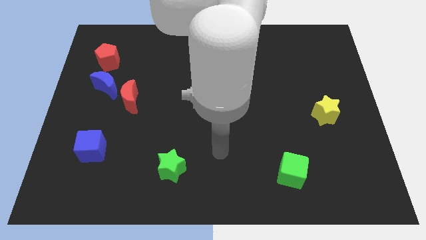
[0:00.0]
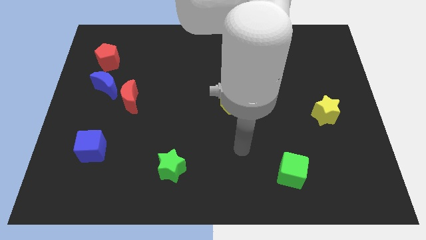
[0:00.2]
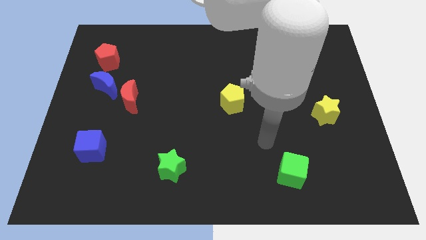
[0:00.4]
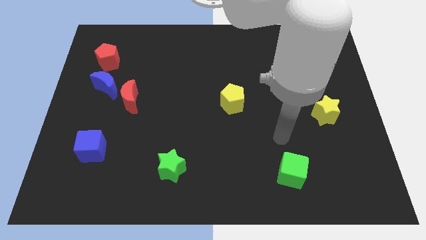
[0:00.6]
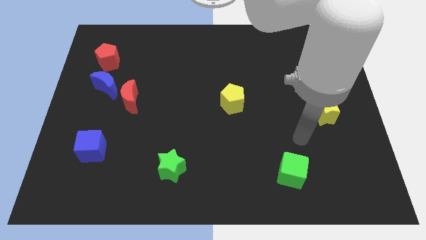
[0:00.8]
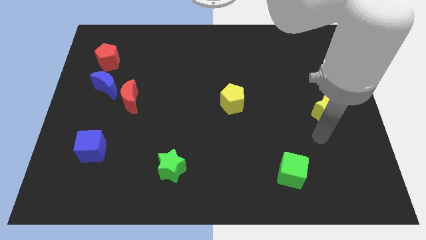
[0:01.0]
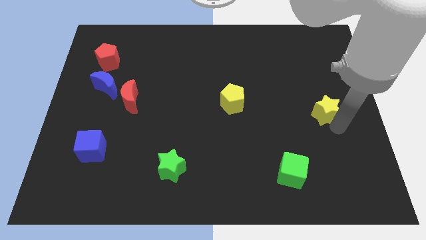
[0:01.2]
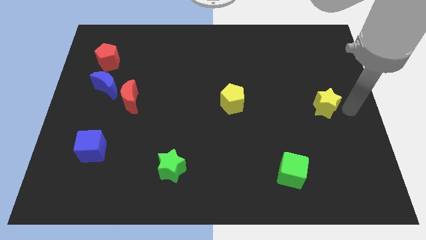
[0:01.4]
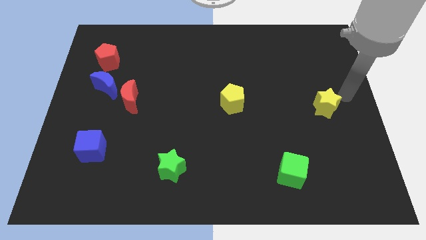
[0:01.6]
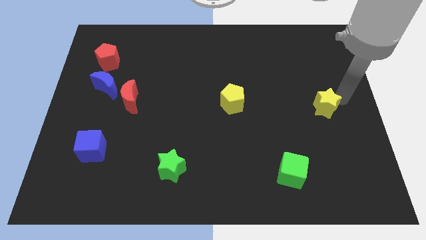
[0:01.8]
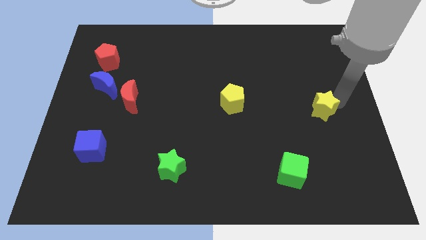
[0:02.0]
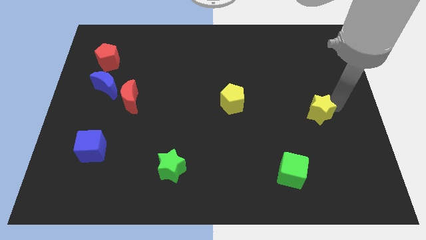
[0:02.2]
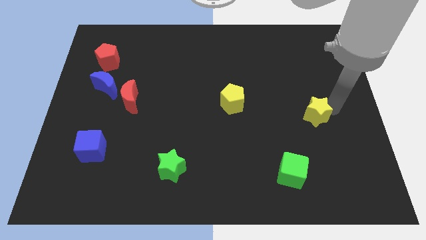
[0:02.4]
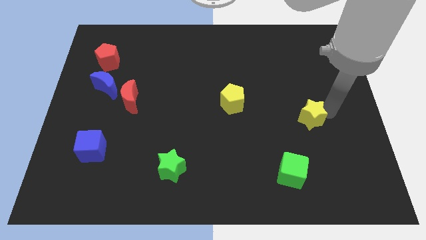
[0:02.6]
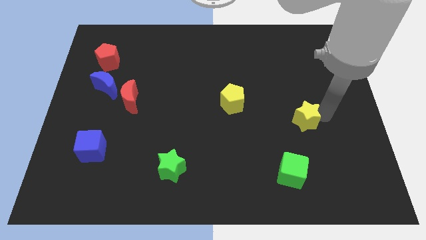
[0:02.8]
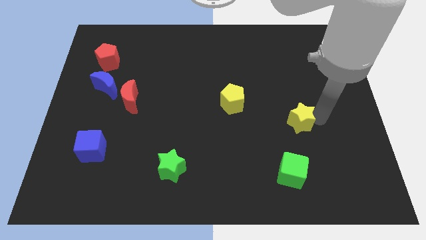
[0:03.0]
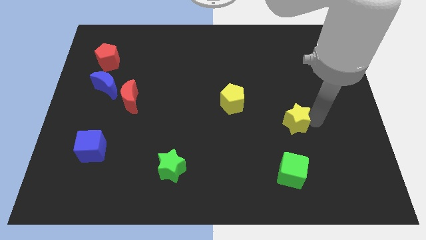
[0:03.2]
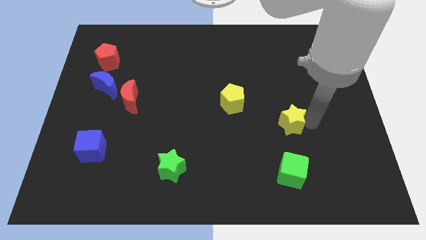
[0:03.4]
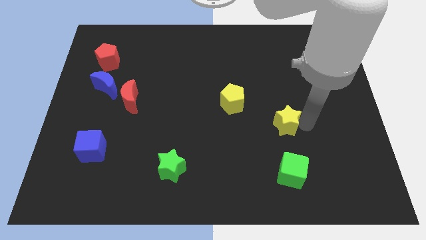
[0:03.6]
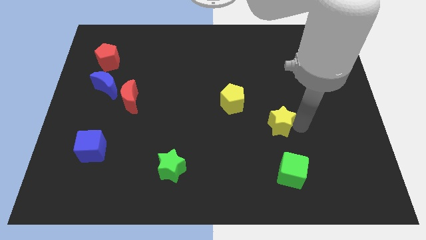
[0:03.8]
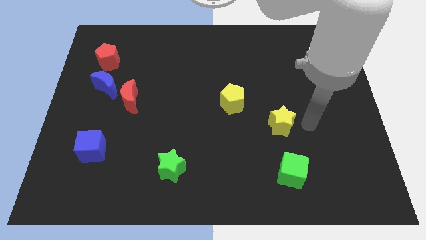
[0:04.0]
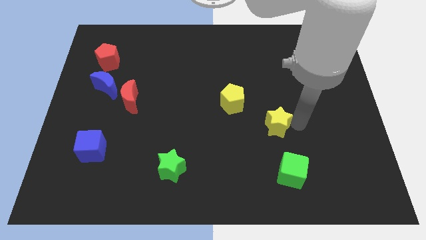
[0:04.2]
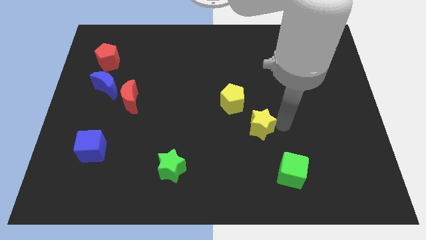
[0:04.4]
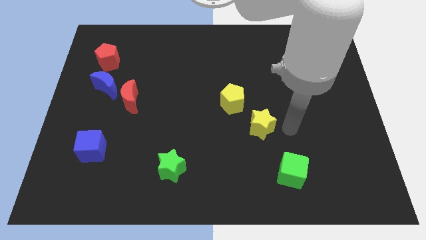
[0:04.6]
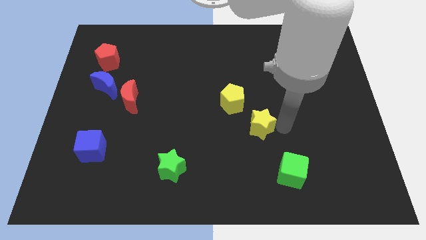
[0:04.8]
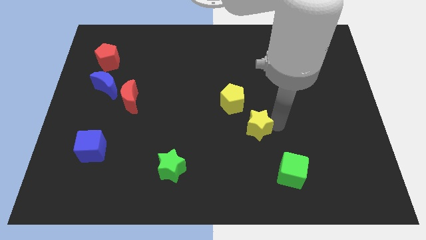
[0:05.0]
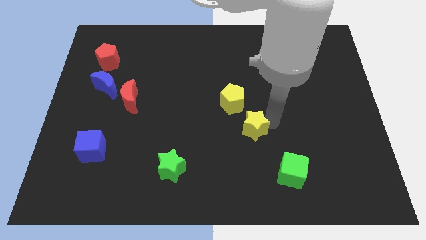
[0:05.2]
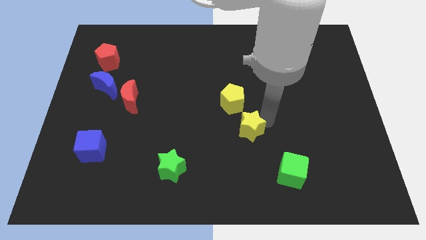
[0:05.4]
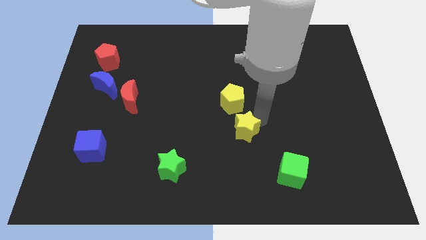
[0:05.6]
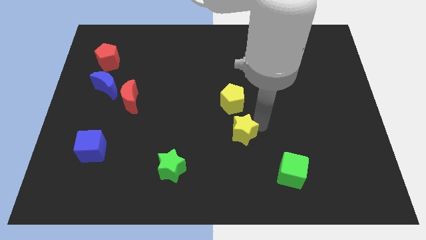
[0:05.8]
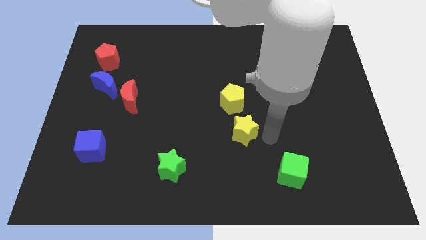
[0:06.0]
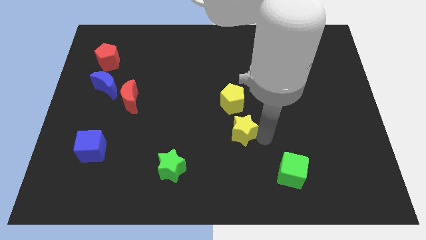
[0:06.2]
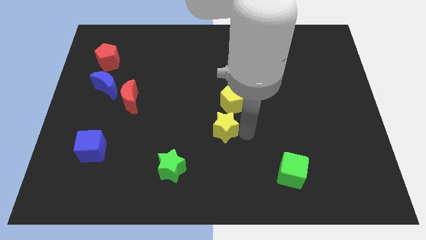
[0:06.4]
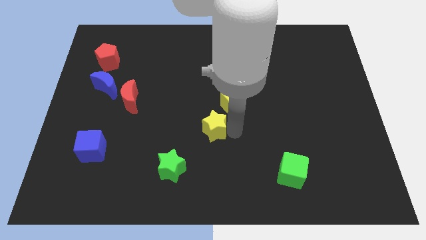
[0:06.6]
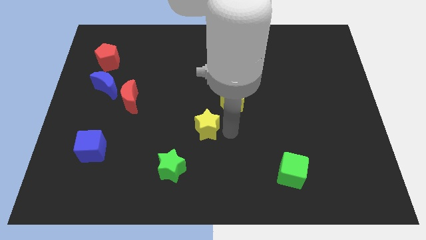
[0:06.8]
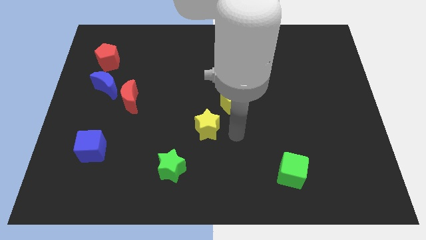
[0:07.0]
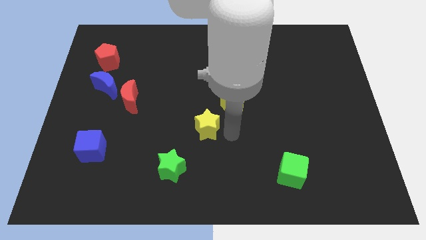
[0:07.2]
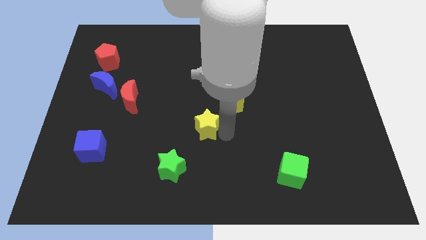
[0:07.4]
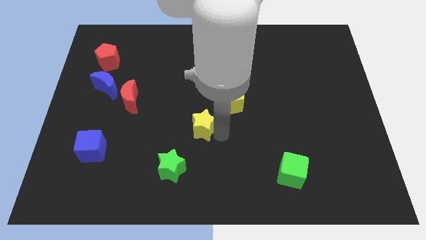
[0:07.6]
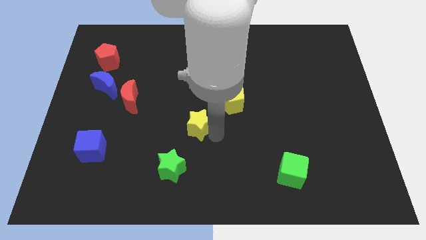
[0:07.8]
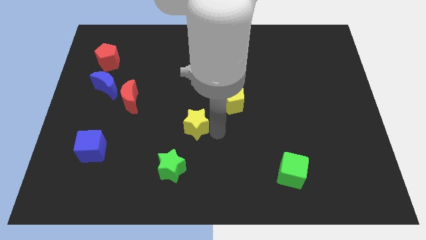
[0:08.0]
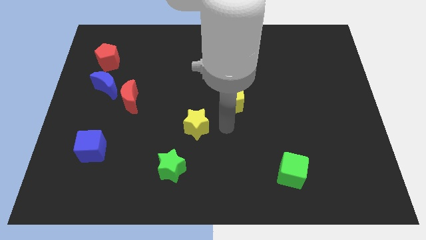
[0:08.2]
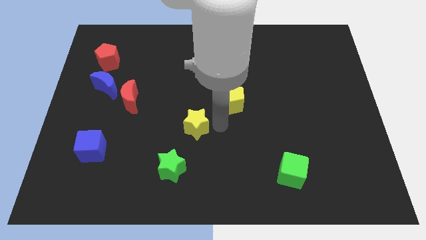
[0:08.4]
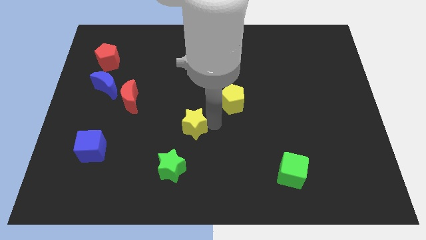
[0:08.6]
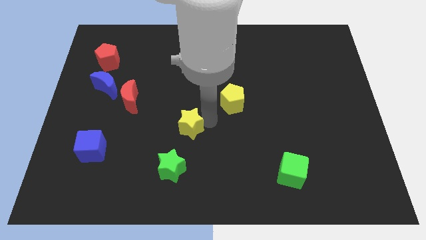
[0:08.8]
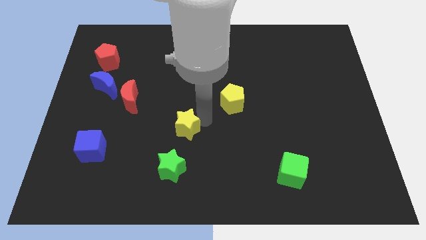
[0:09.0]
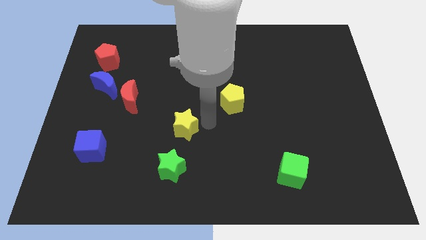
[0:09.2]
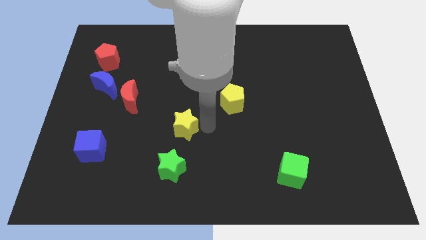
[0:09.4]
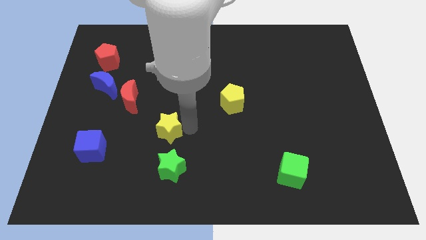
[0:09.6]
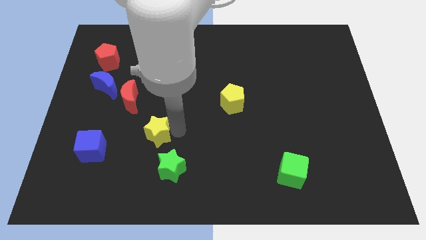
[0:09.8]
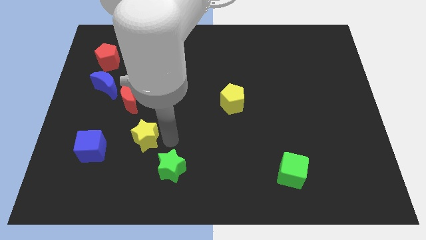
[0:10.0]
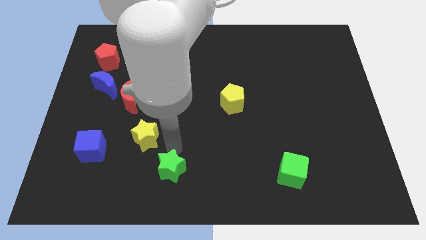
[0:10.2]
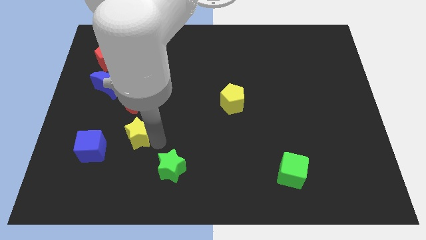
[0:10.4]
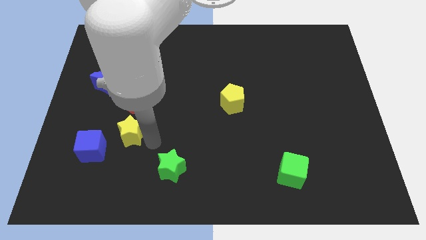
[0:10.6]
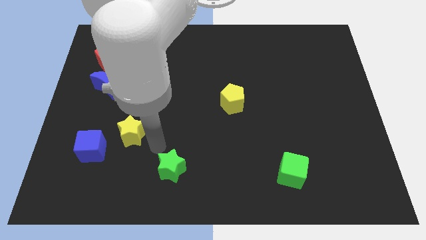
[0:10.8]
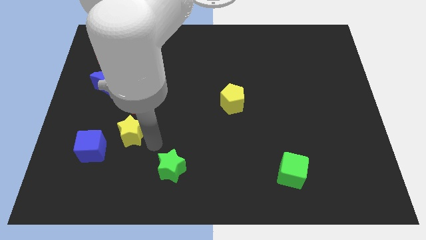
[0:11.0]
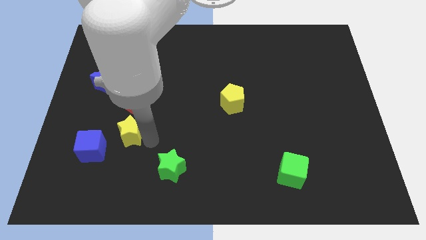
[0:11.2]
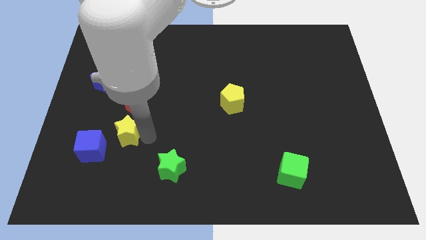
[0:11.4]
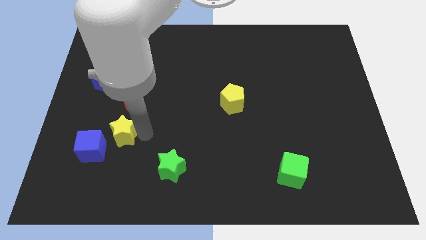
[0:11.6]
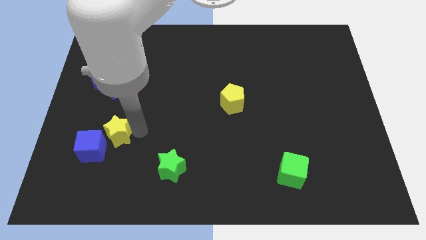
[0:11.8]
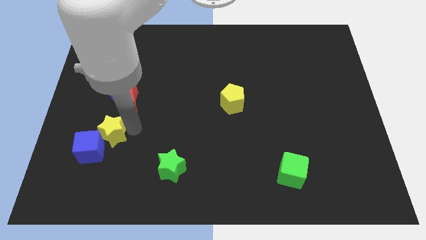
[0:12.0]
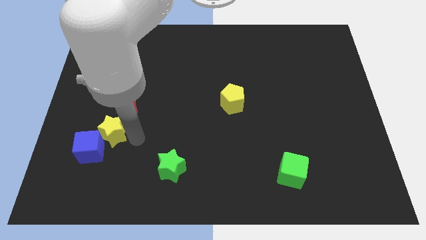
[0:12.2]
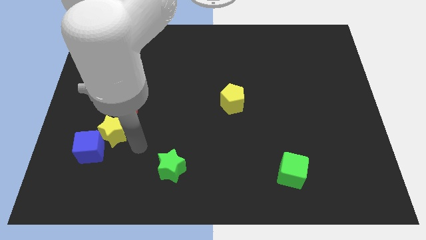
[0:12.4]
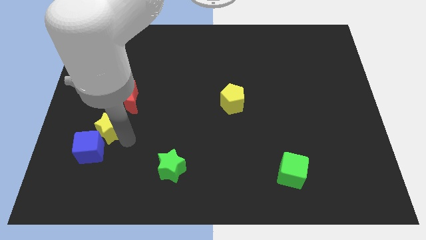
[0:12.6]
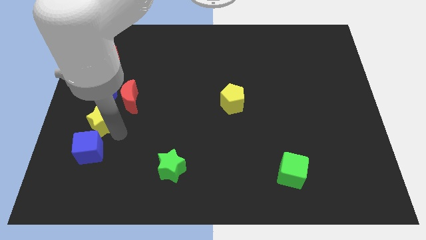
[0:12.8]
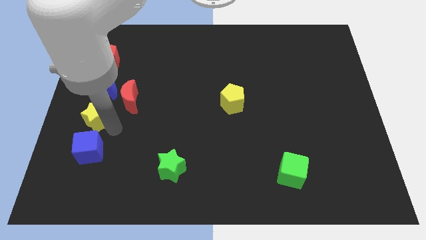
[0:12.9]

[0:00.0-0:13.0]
put the yellow star to the center left
